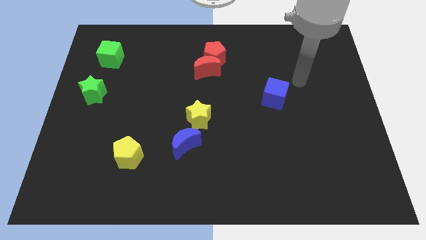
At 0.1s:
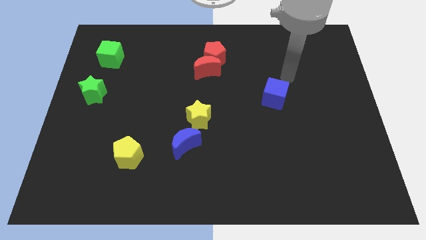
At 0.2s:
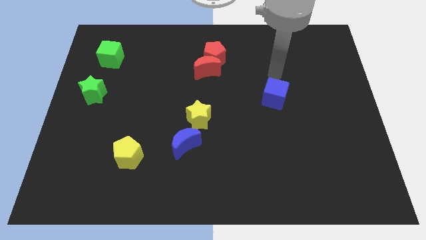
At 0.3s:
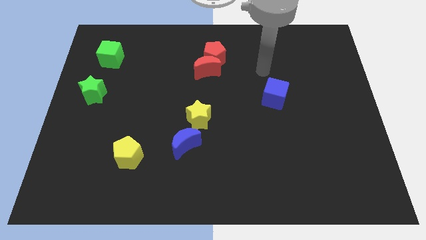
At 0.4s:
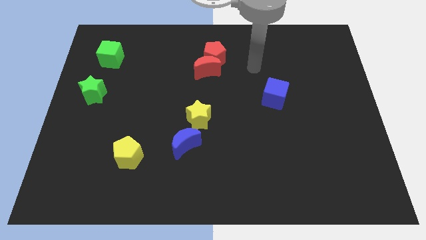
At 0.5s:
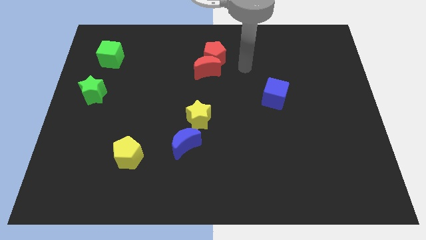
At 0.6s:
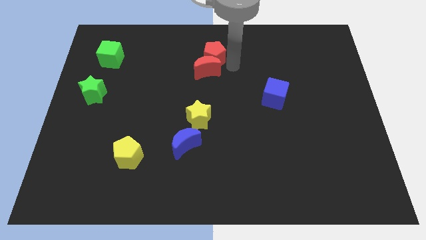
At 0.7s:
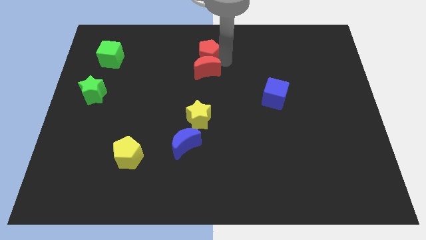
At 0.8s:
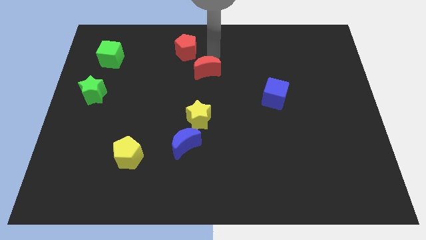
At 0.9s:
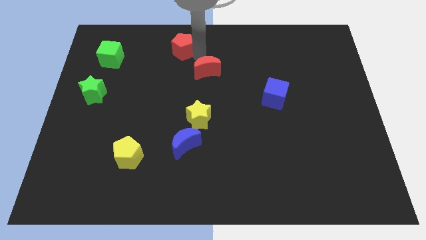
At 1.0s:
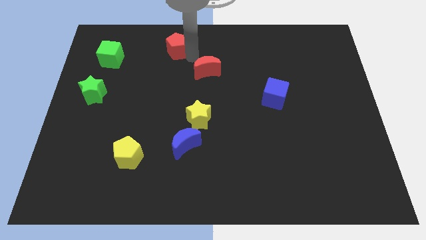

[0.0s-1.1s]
separate the red moon from the red pentagon

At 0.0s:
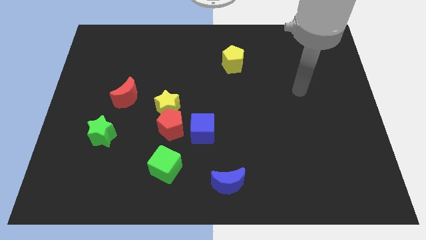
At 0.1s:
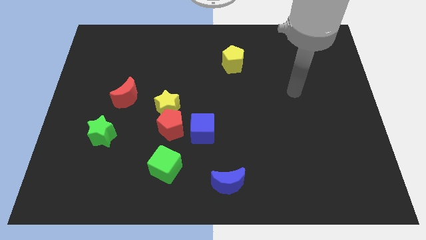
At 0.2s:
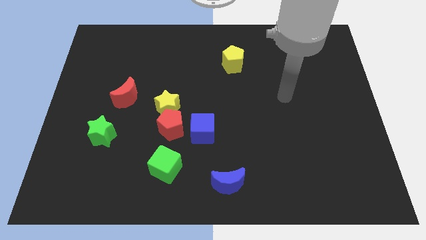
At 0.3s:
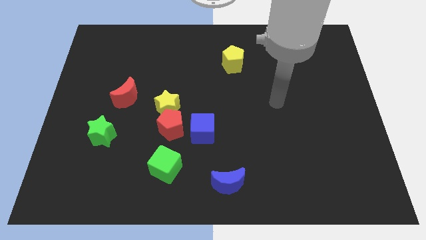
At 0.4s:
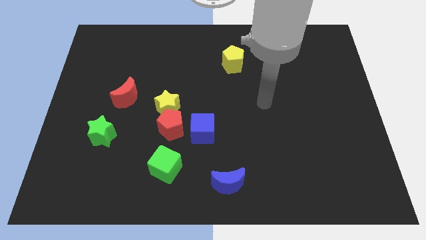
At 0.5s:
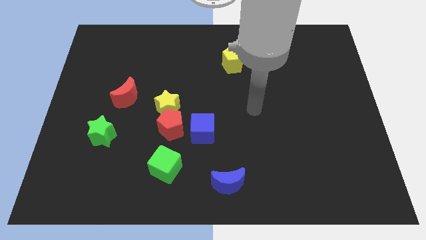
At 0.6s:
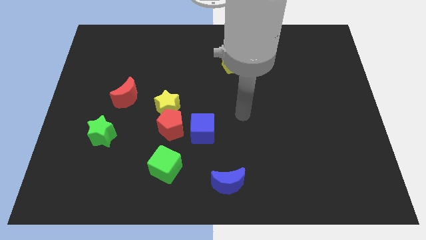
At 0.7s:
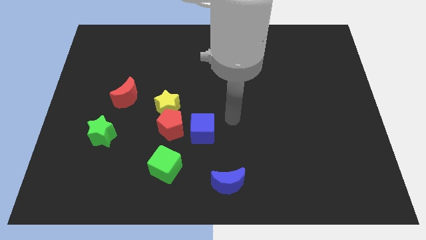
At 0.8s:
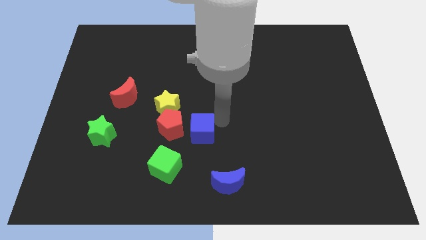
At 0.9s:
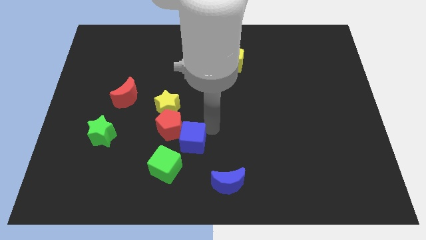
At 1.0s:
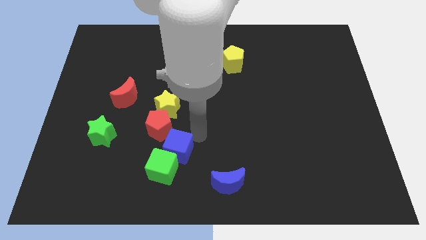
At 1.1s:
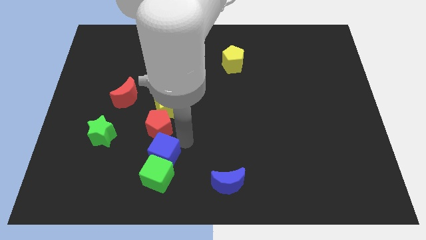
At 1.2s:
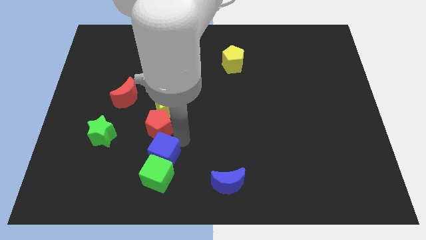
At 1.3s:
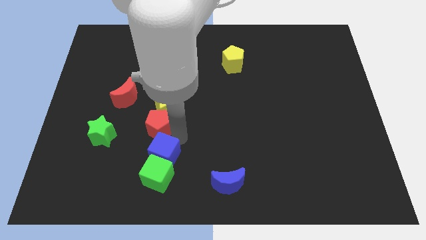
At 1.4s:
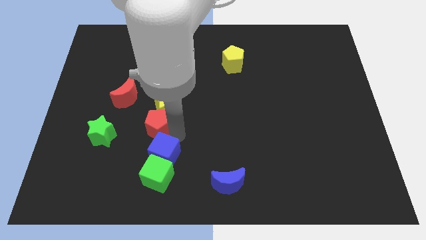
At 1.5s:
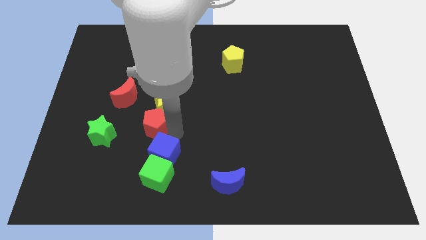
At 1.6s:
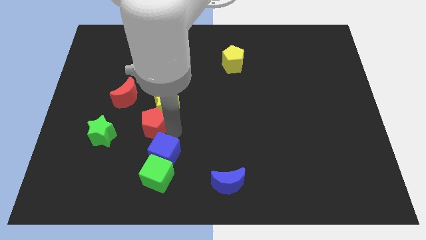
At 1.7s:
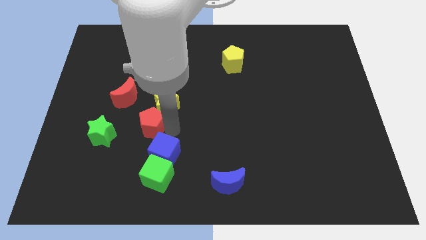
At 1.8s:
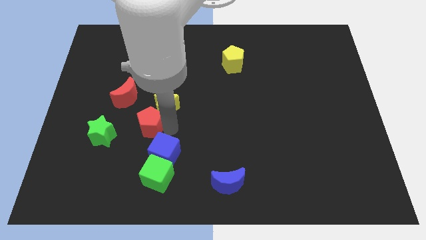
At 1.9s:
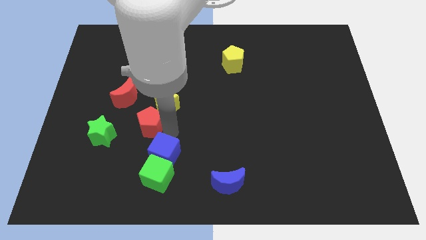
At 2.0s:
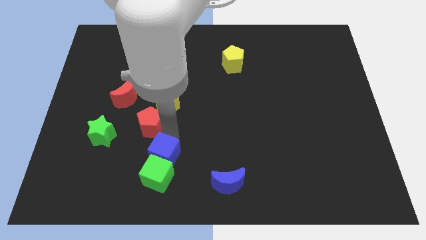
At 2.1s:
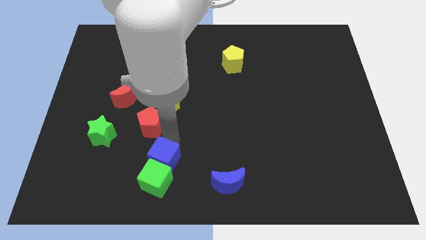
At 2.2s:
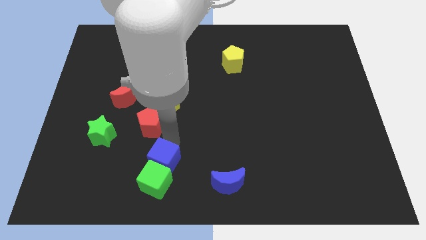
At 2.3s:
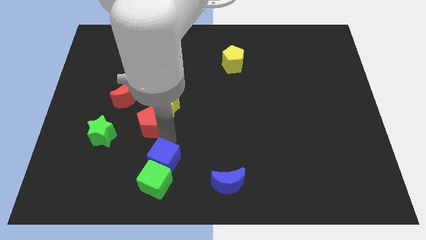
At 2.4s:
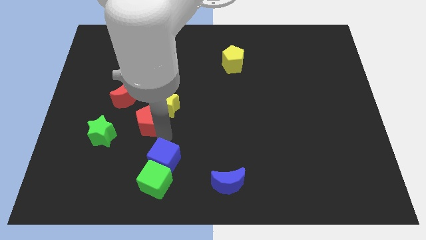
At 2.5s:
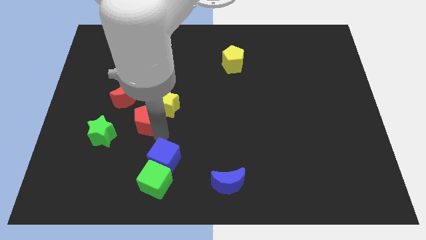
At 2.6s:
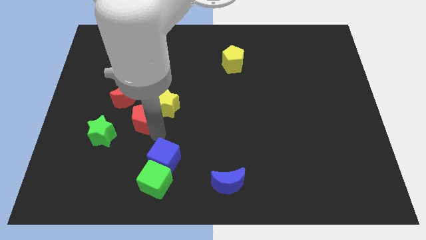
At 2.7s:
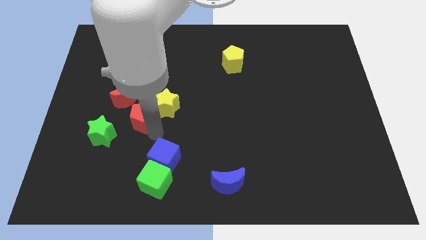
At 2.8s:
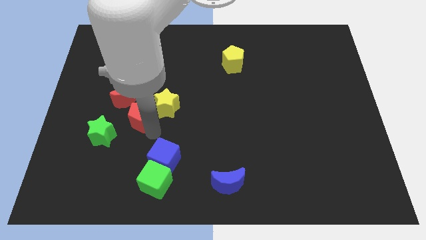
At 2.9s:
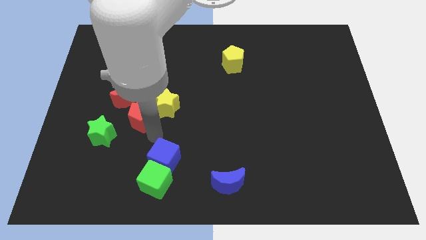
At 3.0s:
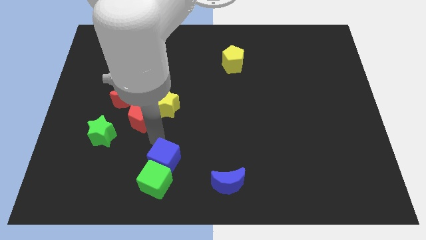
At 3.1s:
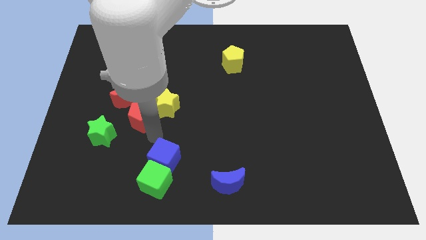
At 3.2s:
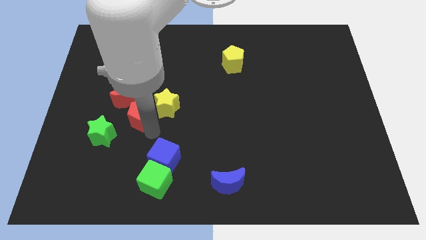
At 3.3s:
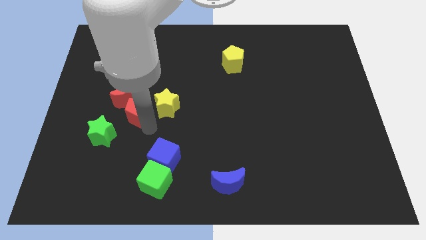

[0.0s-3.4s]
separate the red pentagon from the clump

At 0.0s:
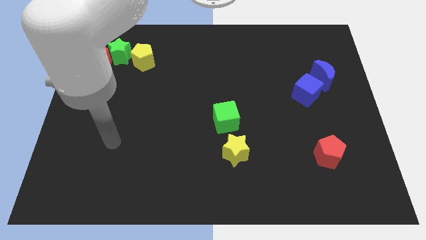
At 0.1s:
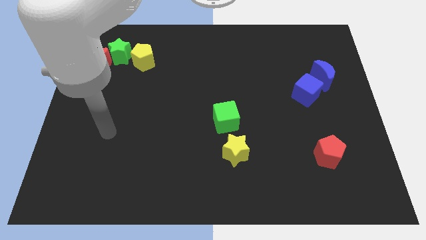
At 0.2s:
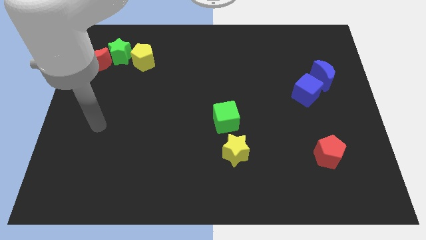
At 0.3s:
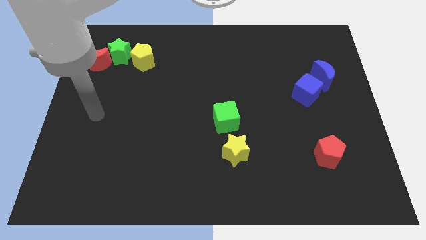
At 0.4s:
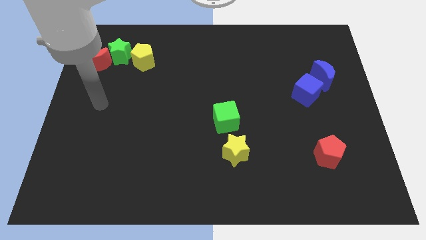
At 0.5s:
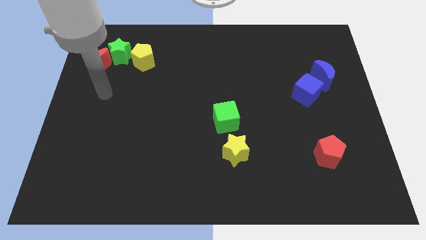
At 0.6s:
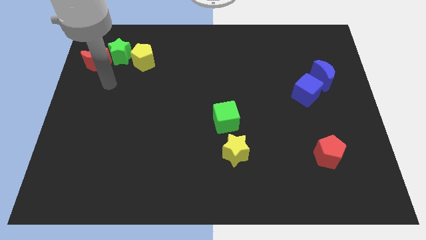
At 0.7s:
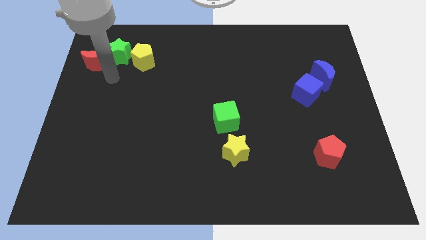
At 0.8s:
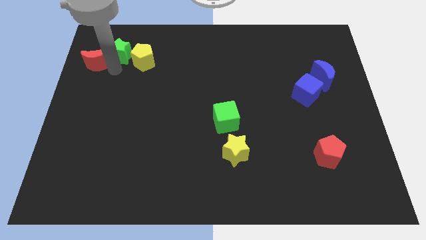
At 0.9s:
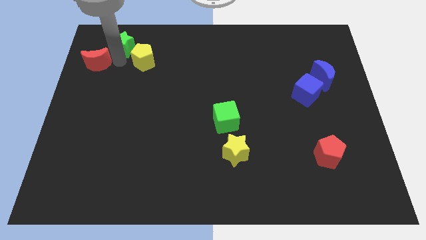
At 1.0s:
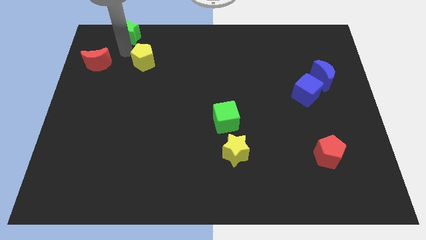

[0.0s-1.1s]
move the yellow pentagon away from the green star

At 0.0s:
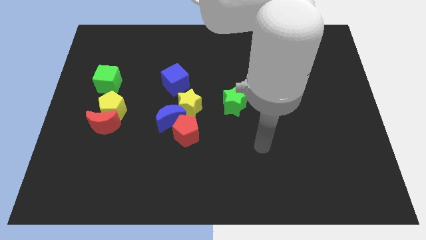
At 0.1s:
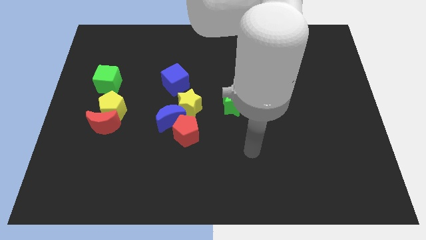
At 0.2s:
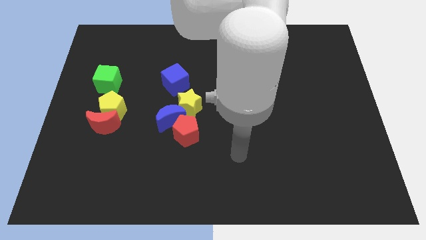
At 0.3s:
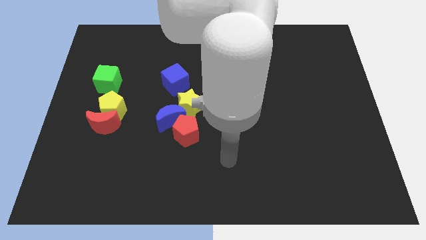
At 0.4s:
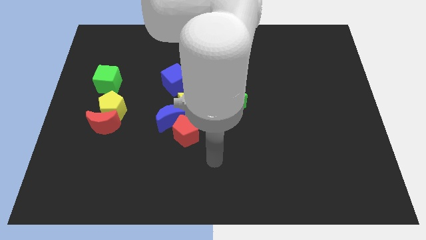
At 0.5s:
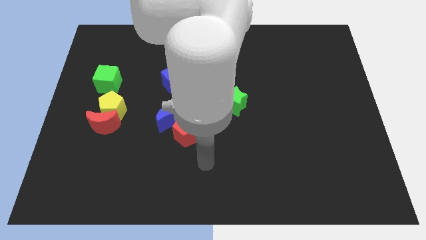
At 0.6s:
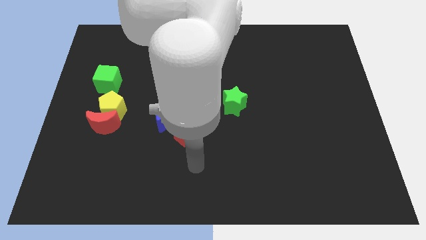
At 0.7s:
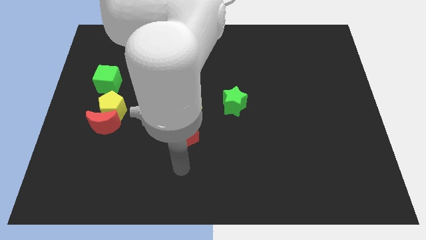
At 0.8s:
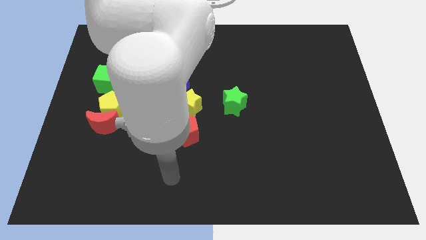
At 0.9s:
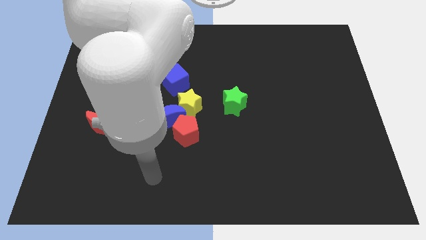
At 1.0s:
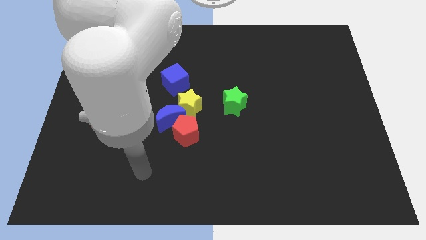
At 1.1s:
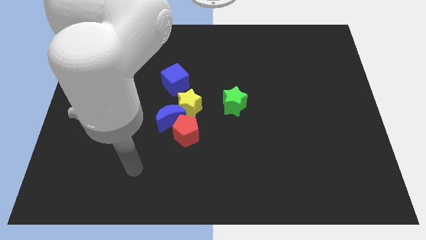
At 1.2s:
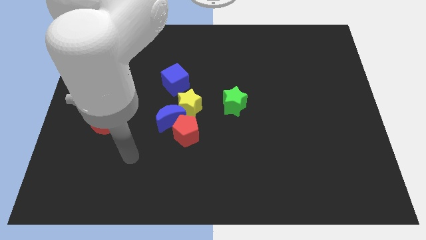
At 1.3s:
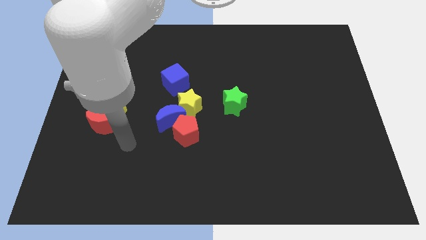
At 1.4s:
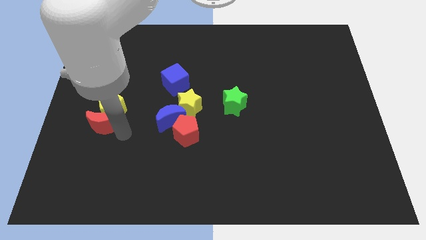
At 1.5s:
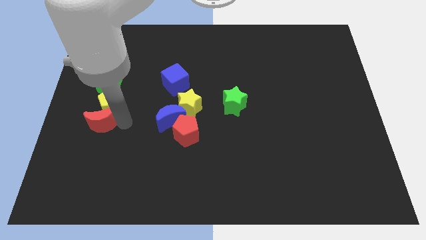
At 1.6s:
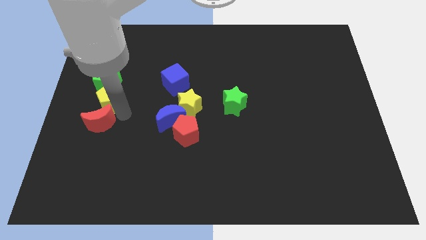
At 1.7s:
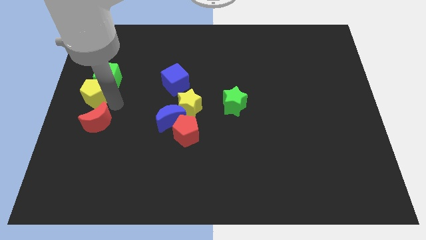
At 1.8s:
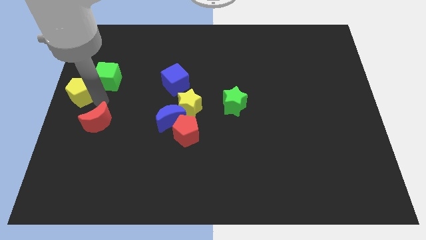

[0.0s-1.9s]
pull the red moon apart from the yellow pentagon

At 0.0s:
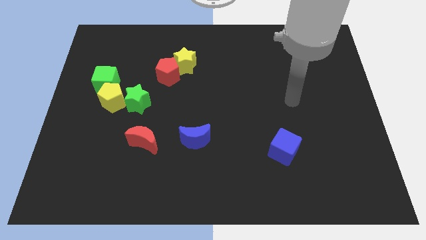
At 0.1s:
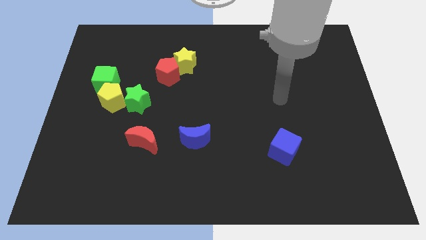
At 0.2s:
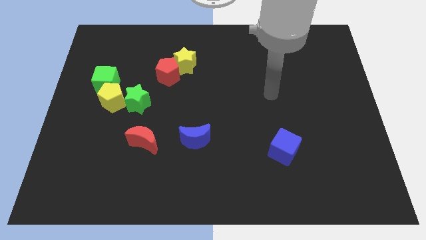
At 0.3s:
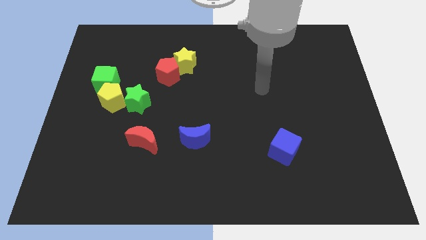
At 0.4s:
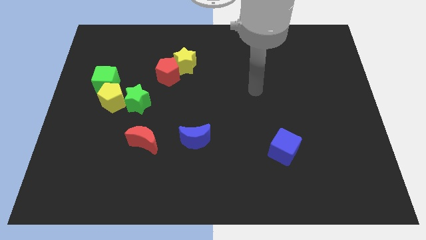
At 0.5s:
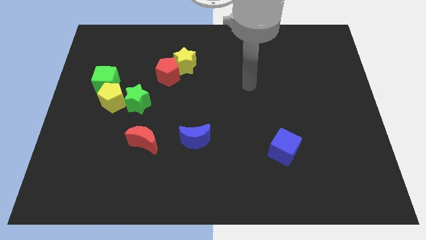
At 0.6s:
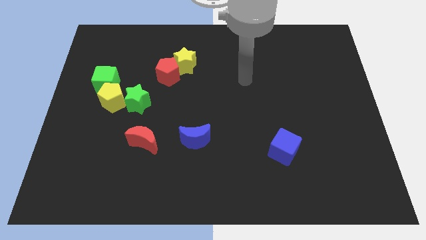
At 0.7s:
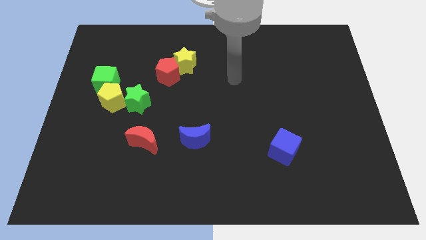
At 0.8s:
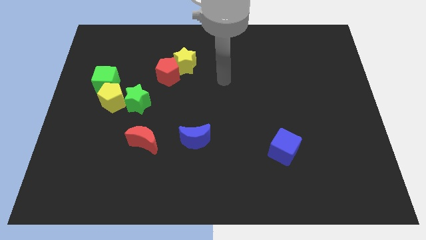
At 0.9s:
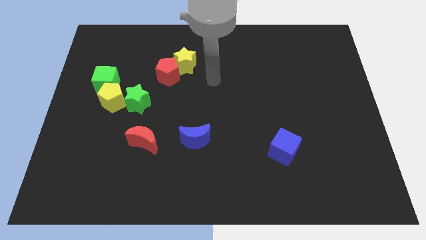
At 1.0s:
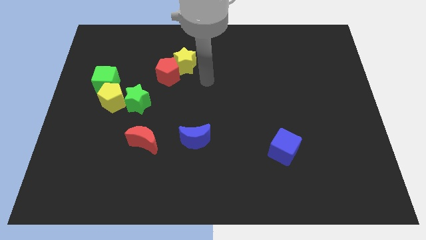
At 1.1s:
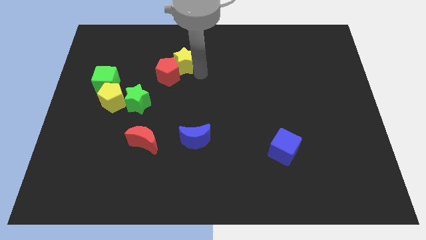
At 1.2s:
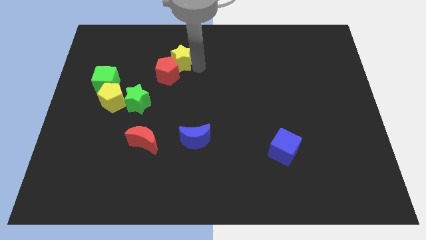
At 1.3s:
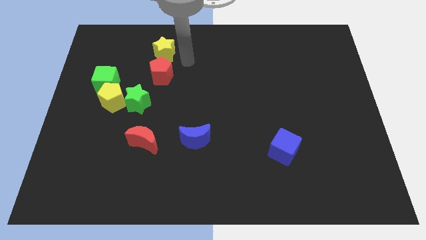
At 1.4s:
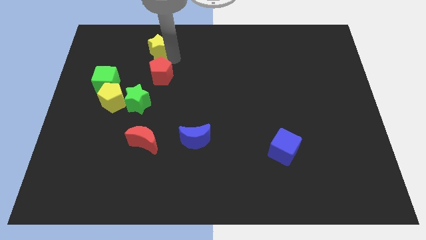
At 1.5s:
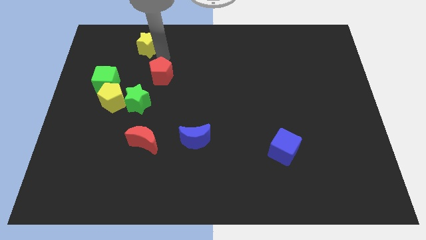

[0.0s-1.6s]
move the red pentagon away from the yellow star

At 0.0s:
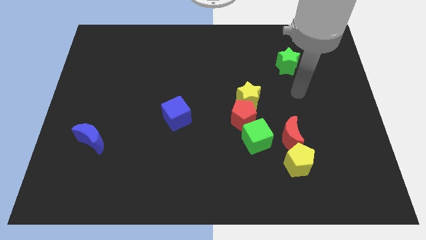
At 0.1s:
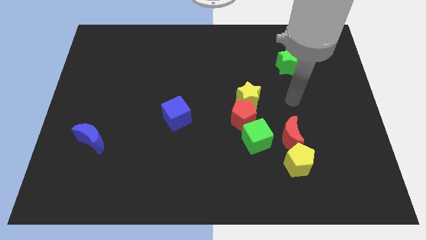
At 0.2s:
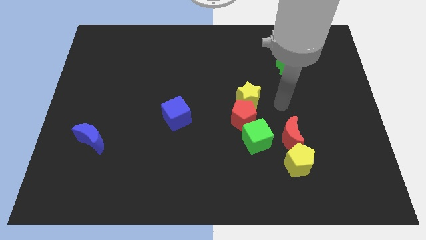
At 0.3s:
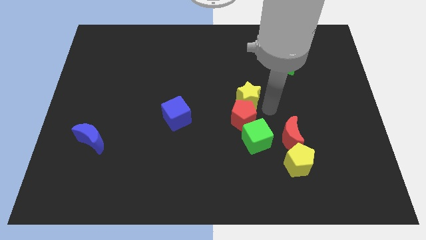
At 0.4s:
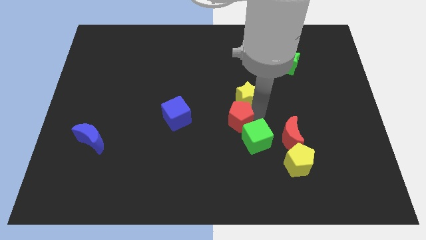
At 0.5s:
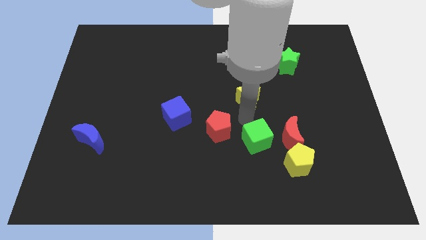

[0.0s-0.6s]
separate the yellow star from the red pentagon
